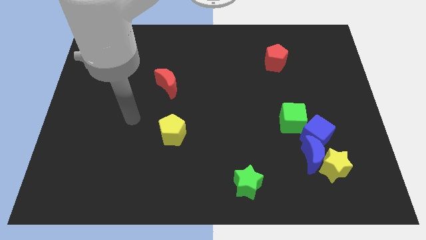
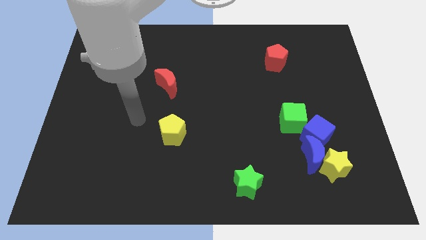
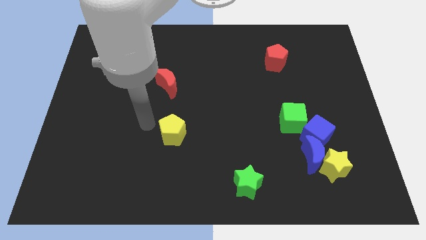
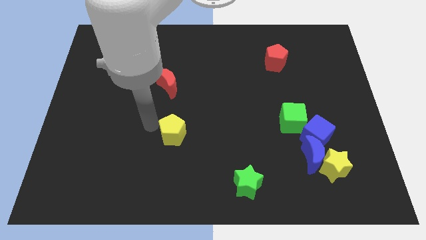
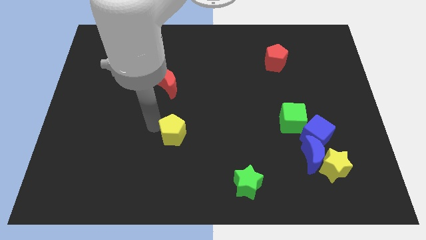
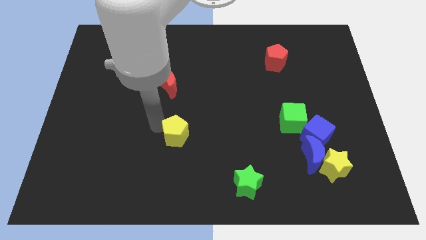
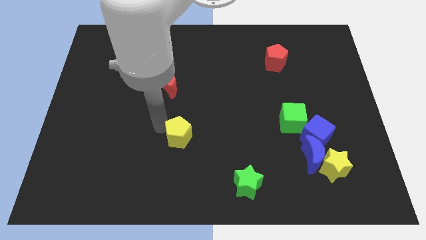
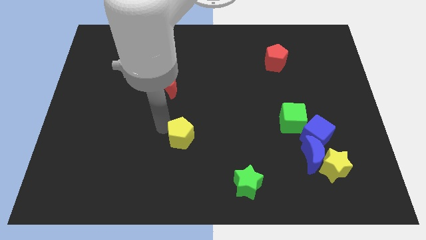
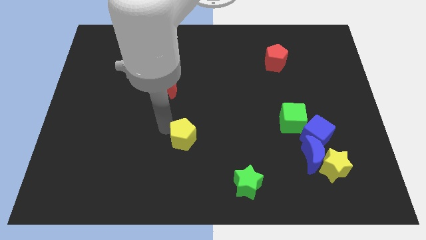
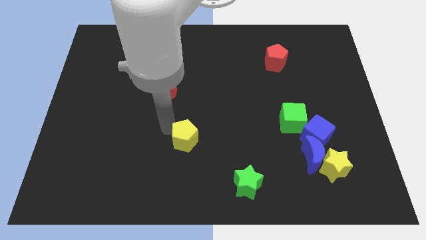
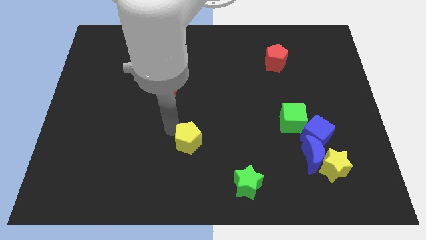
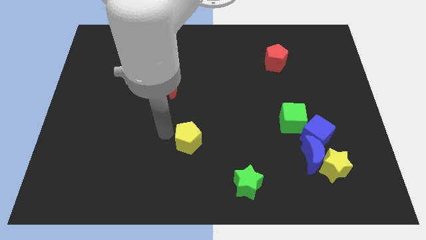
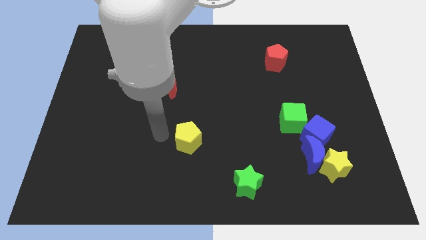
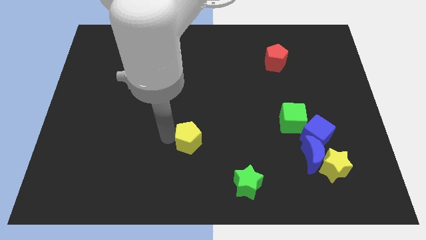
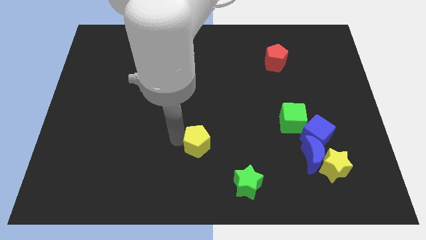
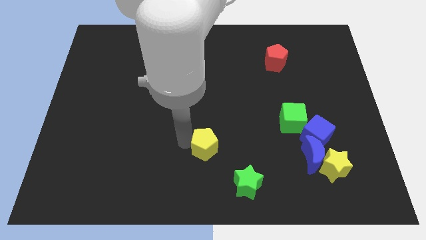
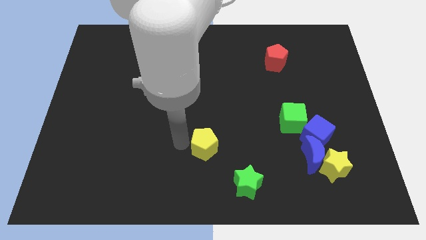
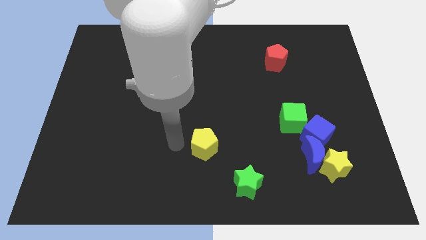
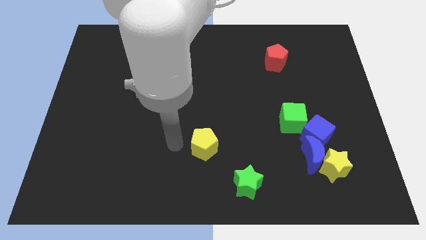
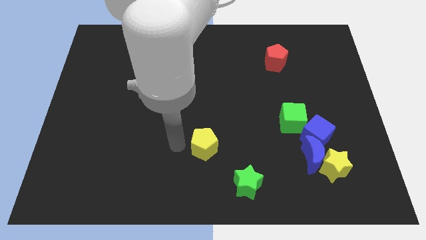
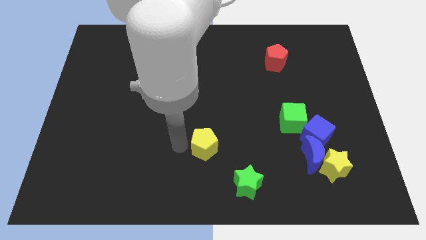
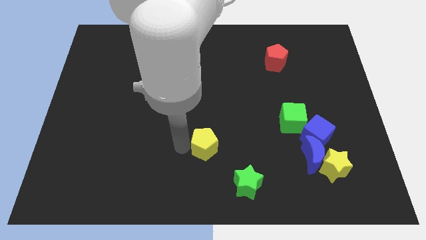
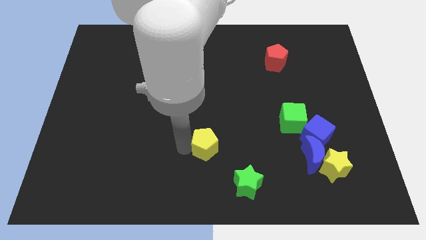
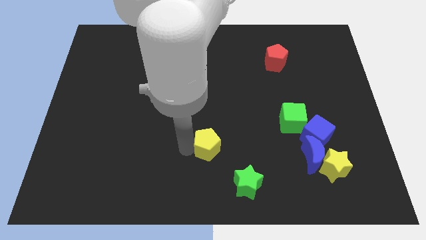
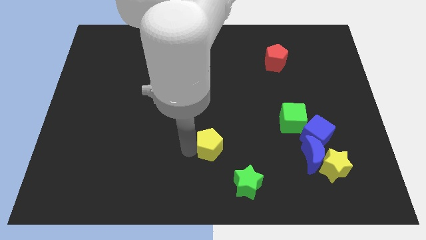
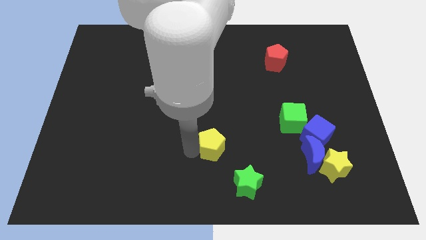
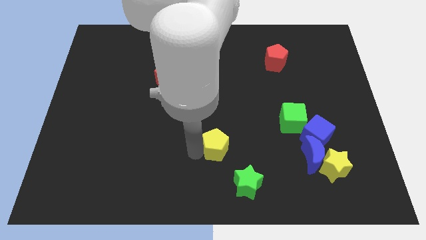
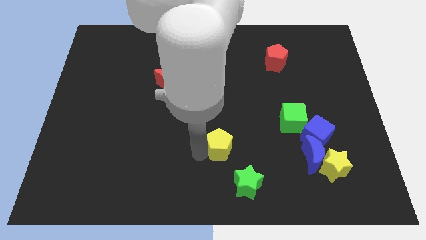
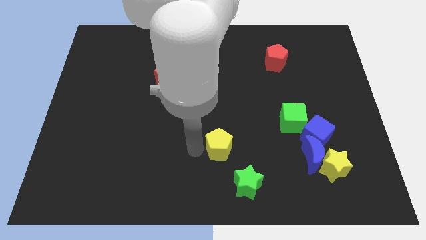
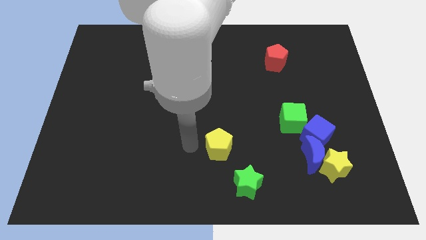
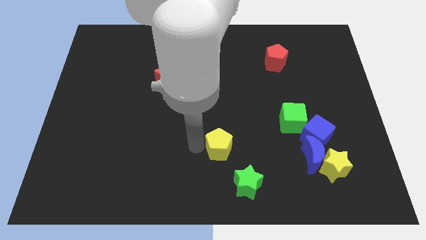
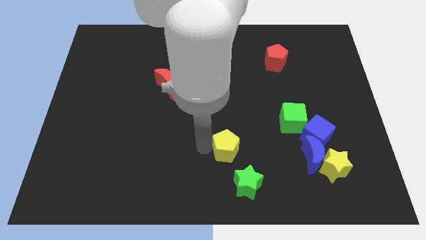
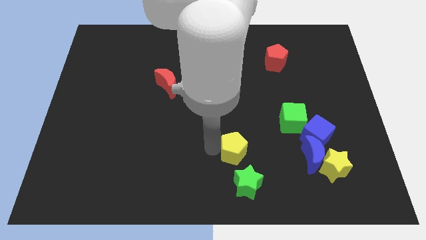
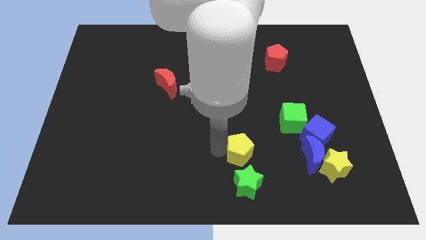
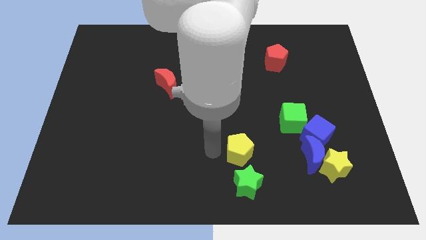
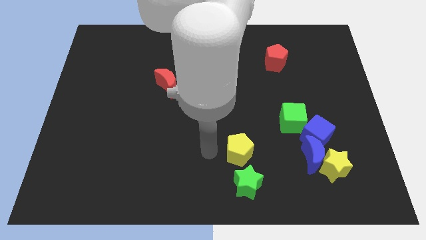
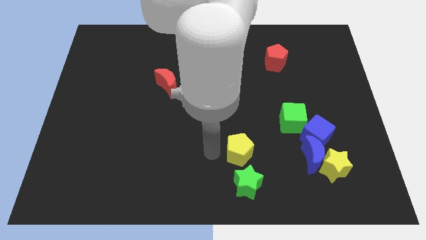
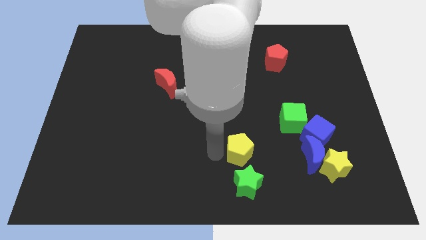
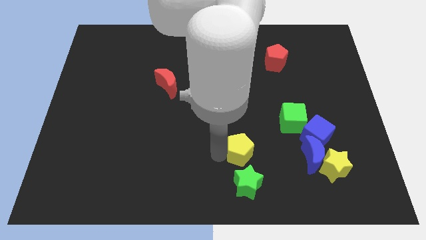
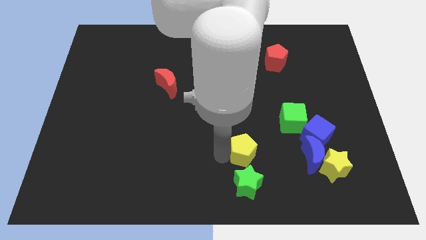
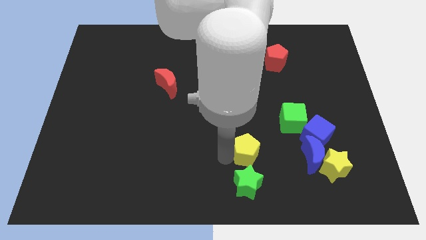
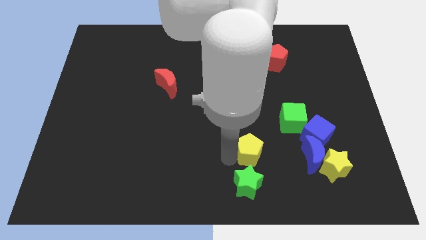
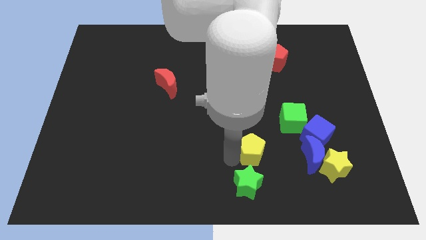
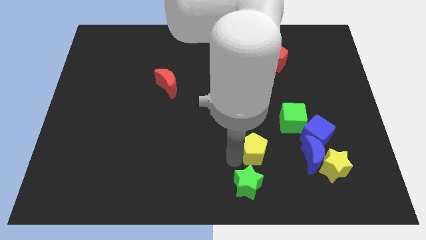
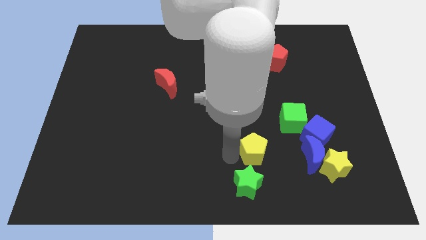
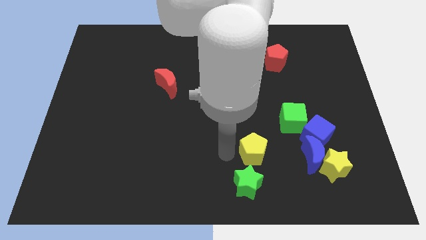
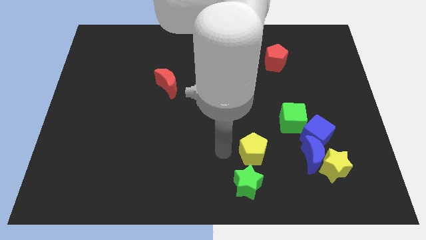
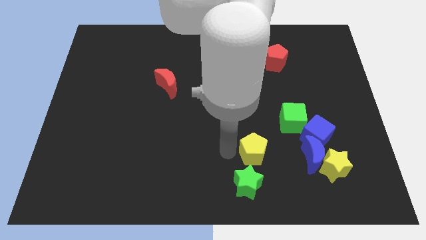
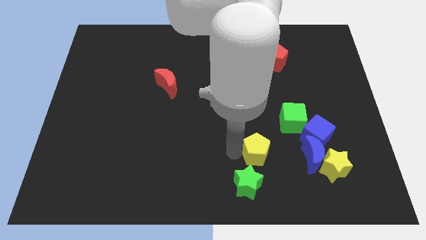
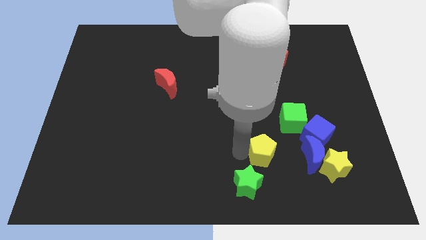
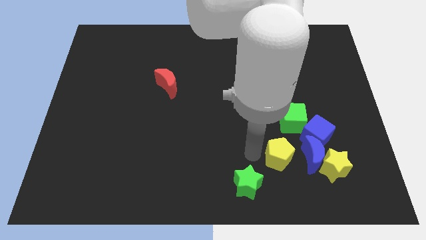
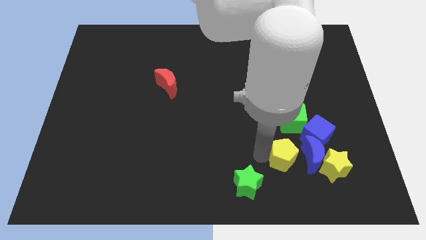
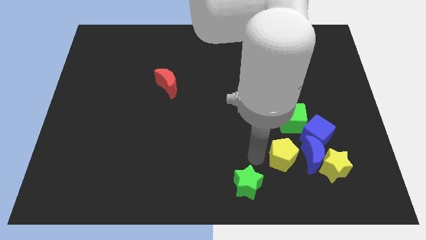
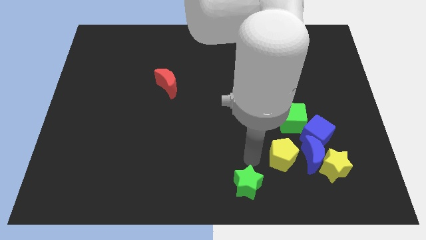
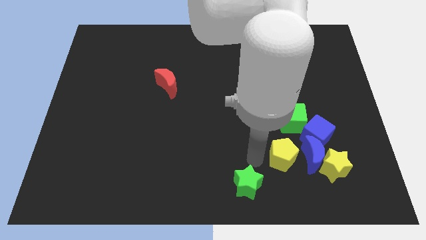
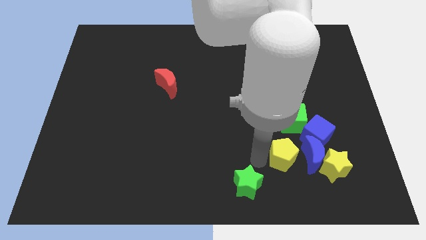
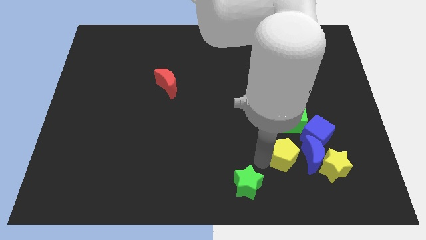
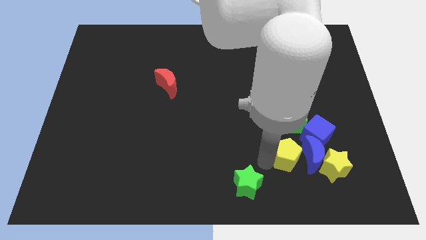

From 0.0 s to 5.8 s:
slide the yellow pentagon to the blue moon

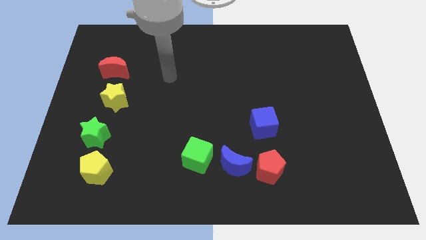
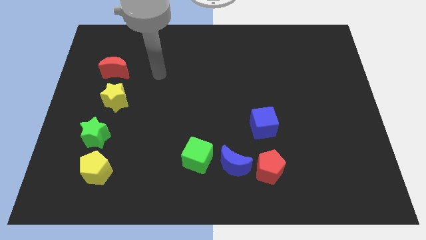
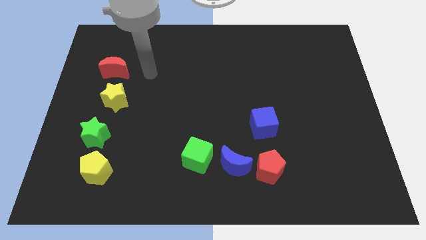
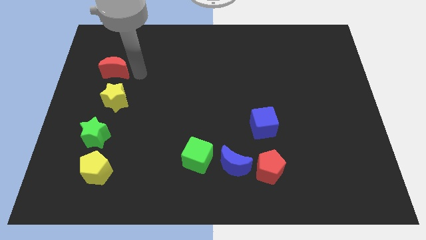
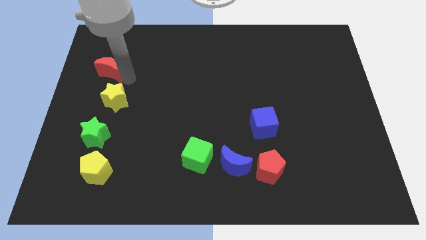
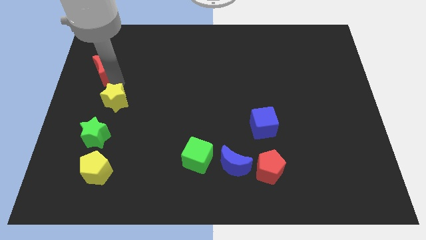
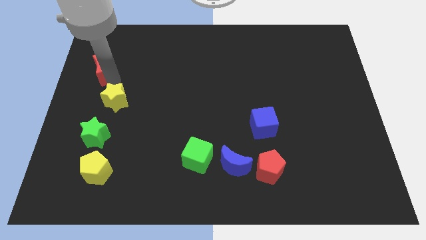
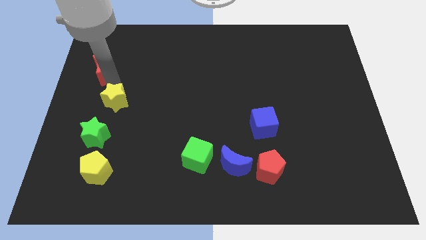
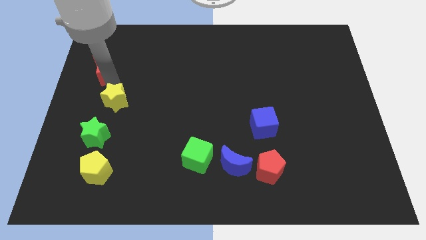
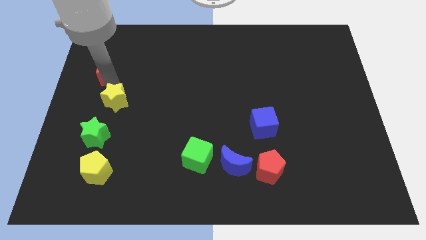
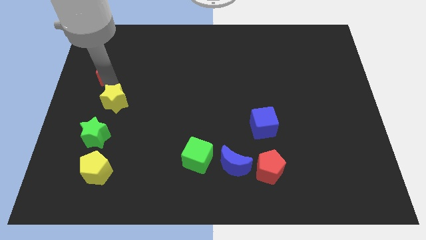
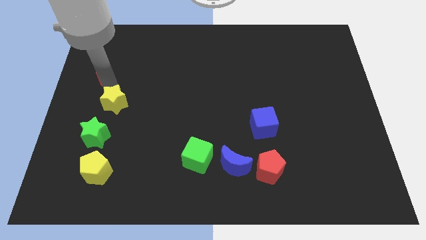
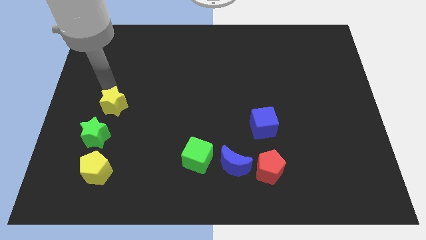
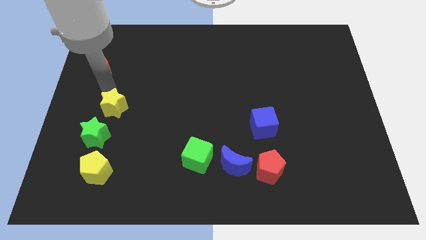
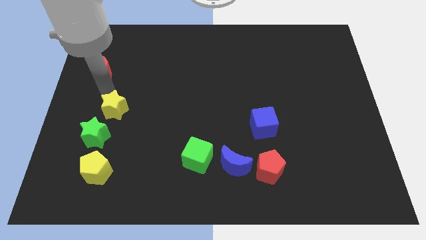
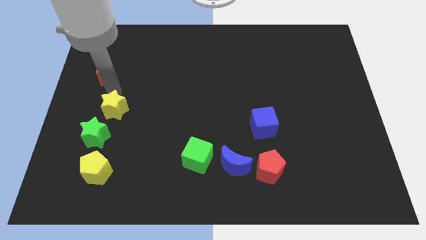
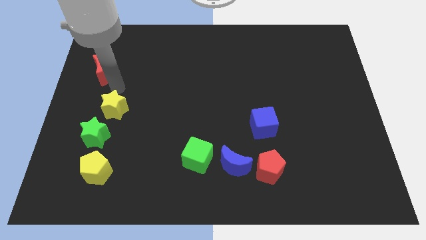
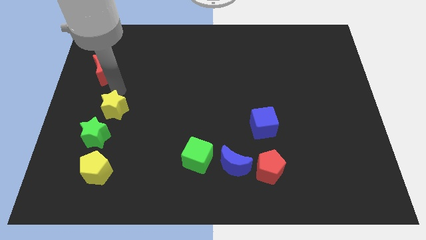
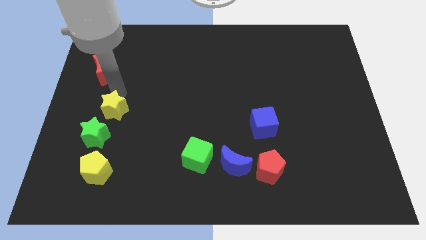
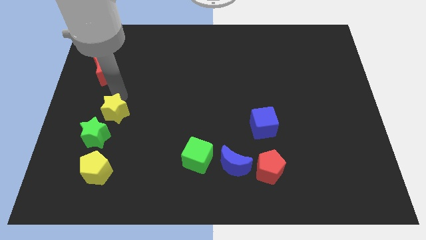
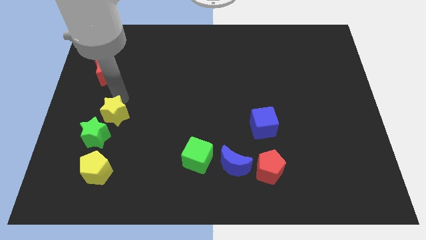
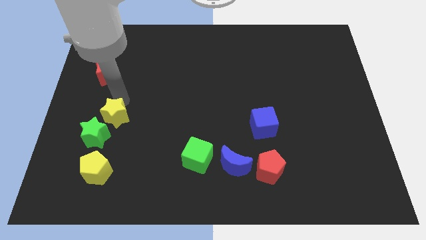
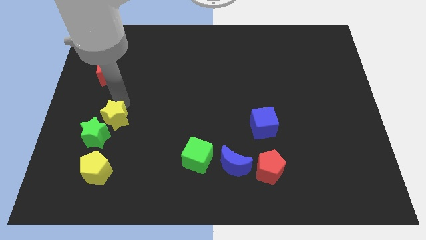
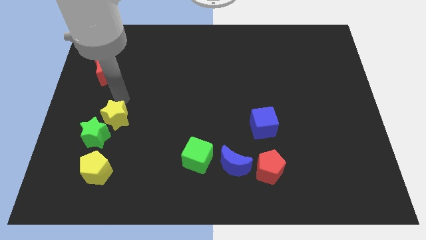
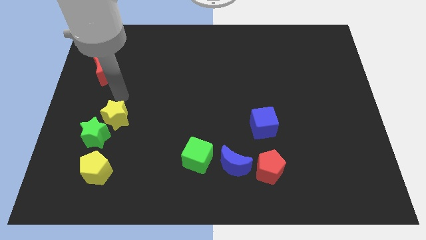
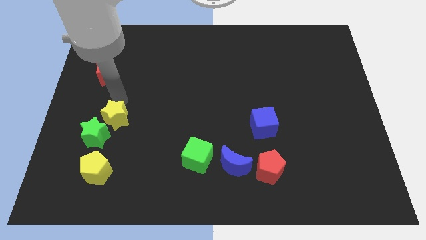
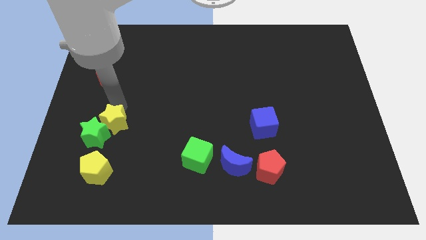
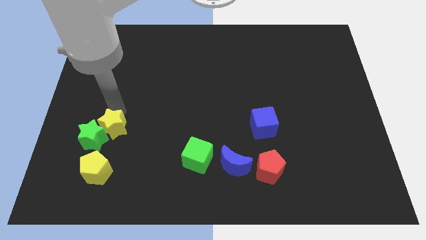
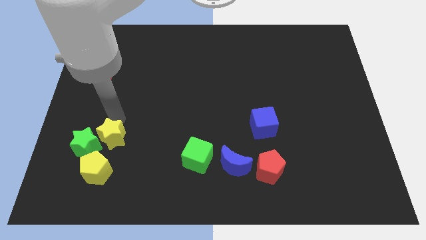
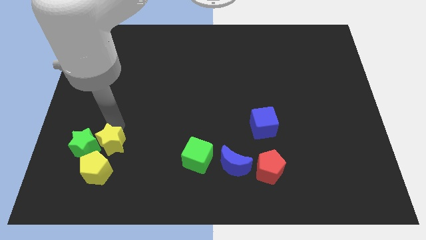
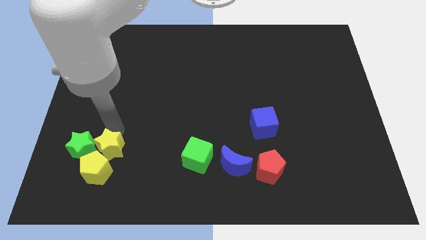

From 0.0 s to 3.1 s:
move the yellow star close to the yellow pentagon
